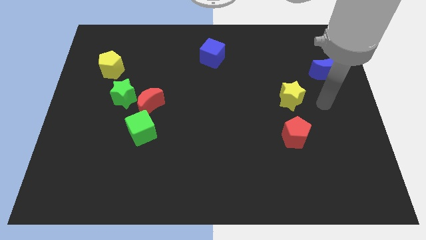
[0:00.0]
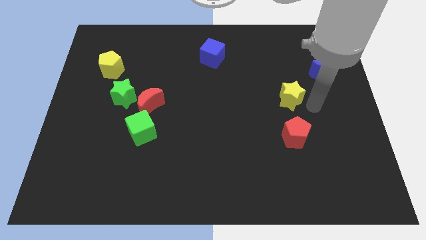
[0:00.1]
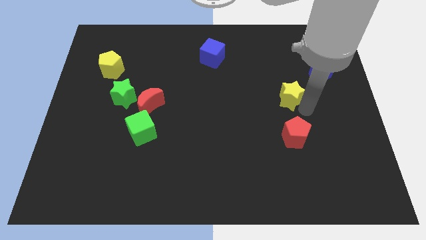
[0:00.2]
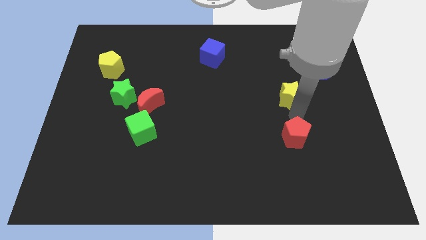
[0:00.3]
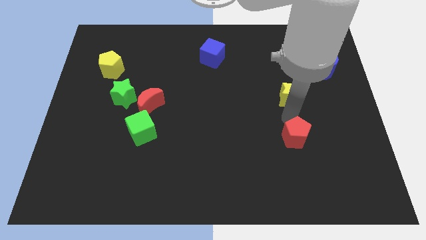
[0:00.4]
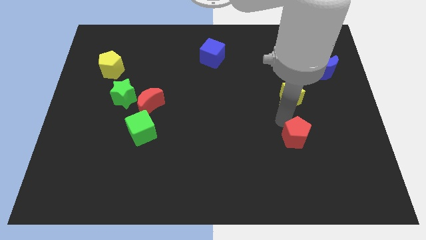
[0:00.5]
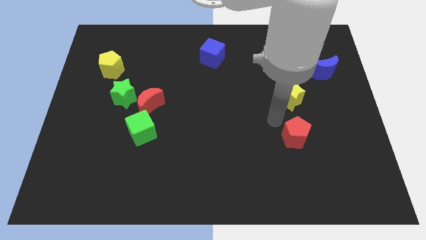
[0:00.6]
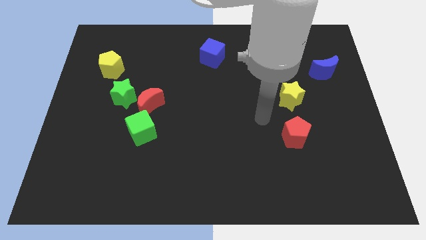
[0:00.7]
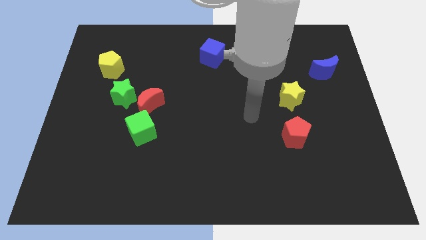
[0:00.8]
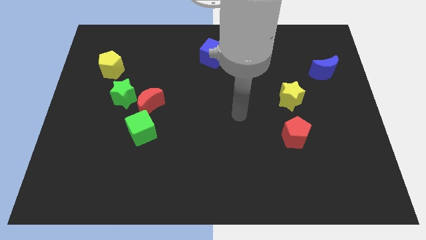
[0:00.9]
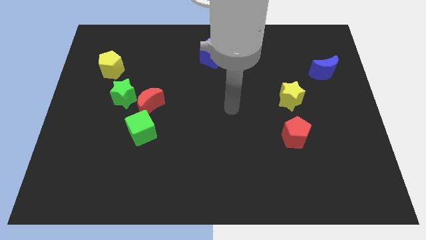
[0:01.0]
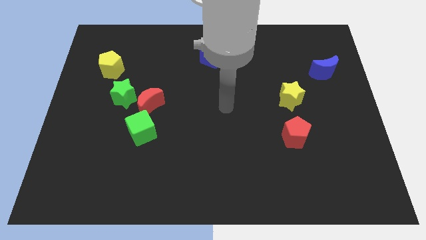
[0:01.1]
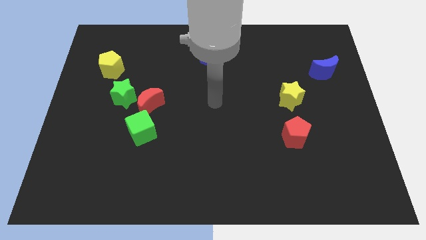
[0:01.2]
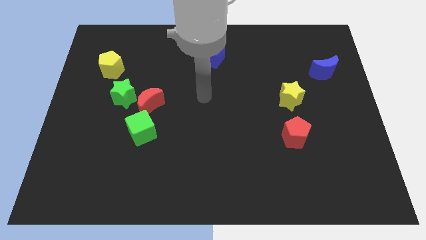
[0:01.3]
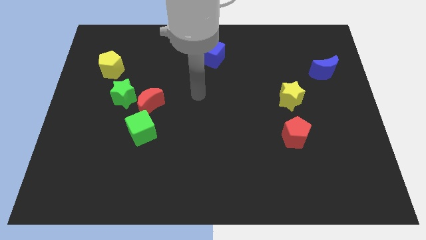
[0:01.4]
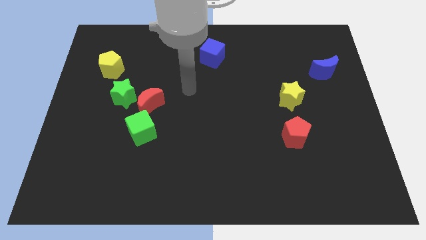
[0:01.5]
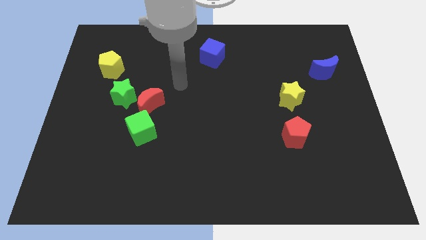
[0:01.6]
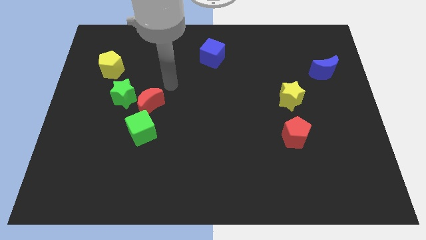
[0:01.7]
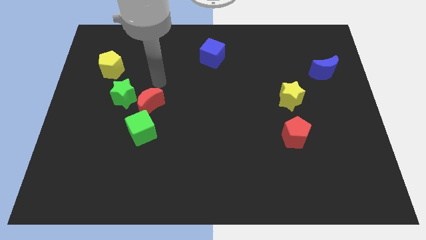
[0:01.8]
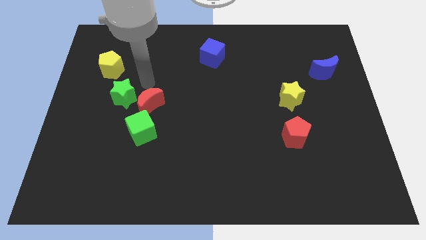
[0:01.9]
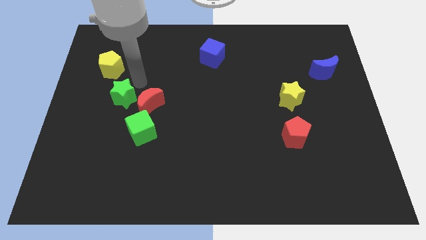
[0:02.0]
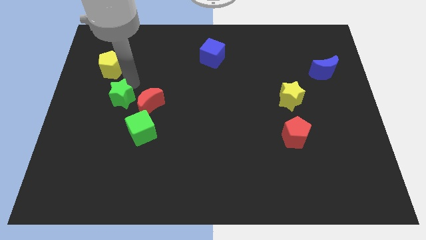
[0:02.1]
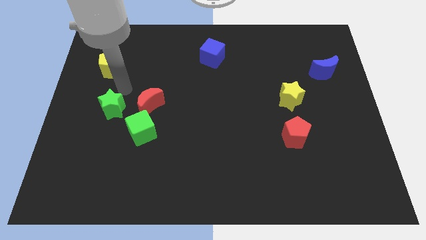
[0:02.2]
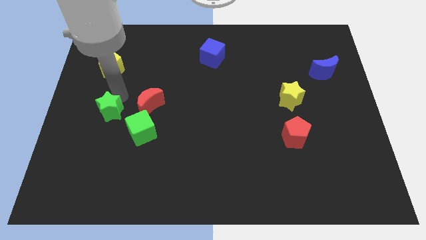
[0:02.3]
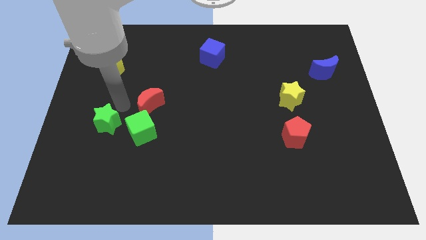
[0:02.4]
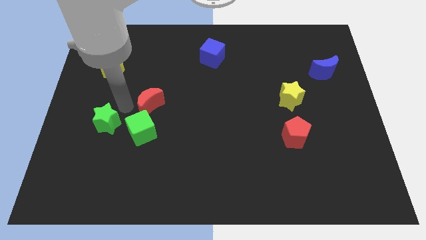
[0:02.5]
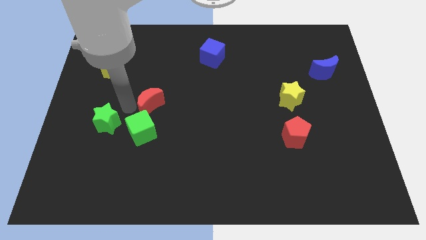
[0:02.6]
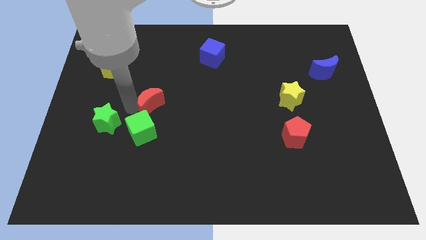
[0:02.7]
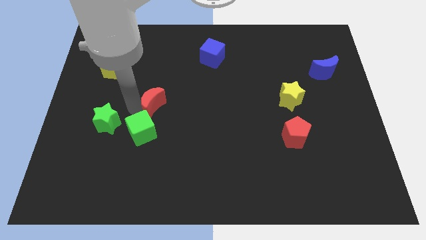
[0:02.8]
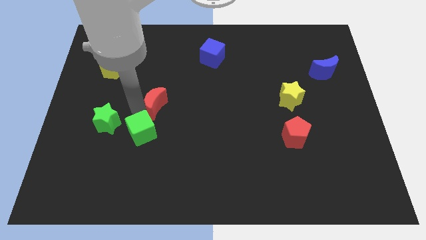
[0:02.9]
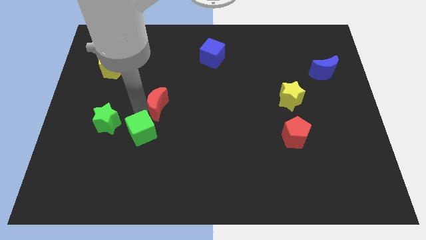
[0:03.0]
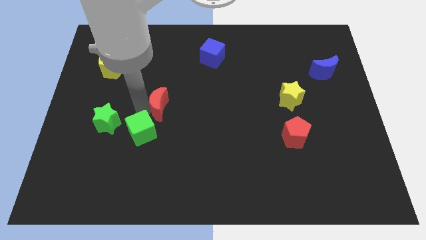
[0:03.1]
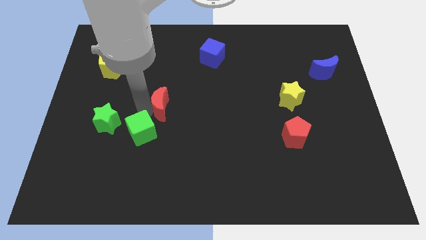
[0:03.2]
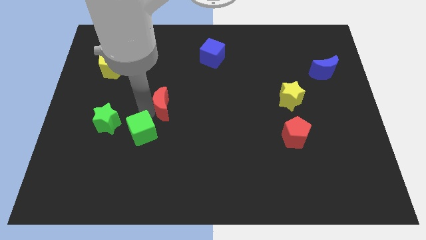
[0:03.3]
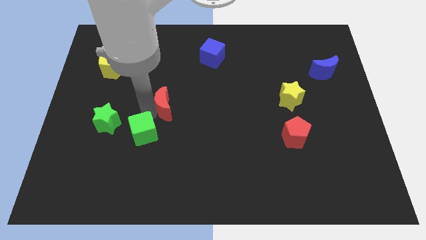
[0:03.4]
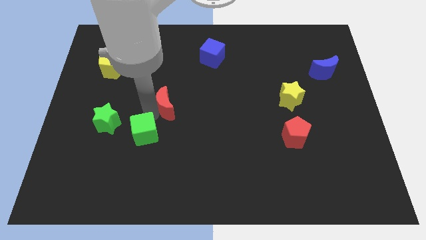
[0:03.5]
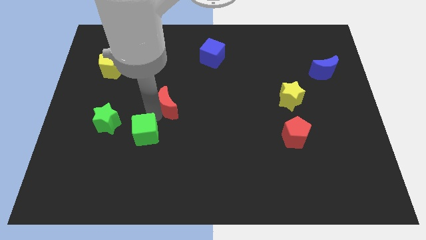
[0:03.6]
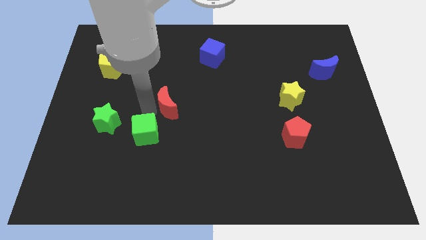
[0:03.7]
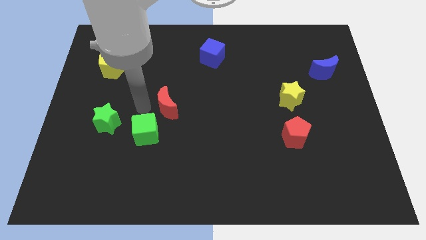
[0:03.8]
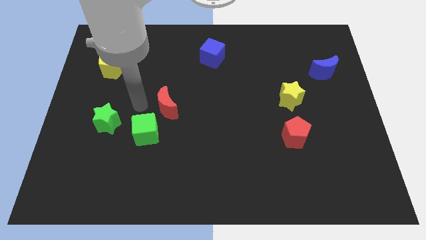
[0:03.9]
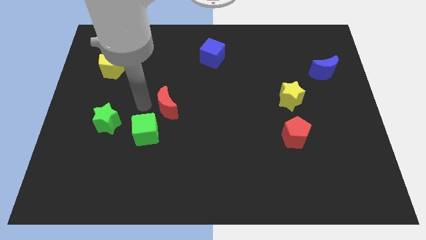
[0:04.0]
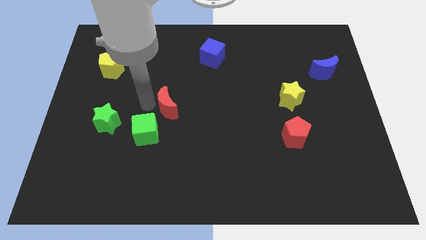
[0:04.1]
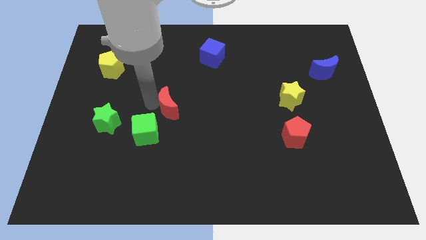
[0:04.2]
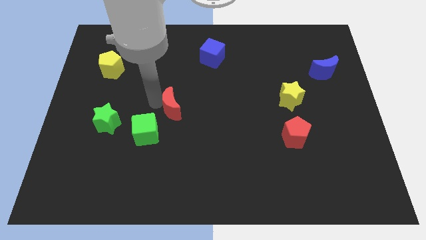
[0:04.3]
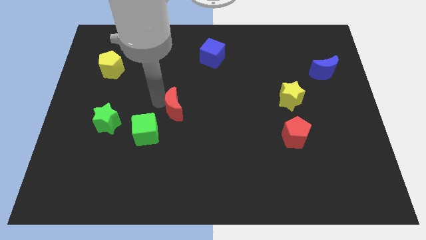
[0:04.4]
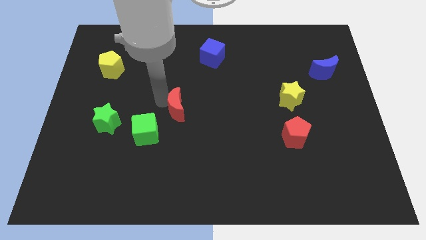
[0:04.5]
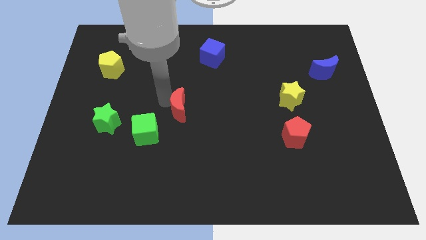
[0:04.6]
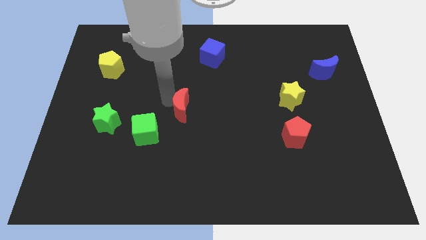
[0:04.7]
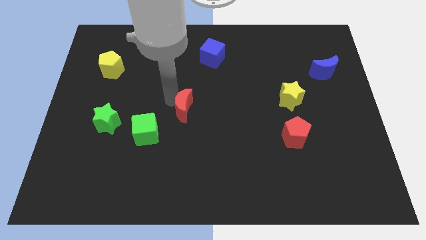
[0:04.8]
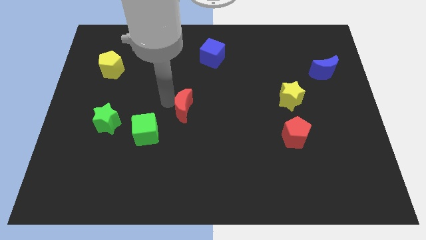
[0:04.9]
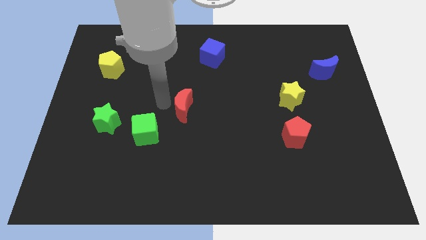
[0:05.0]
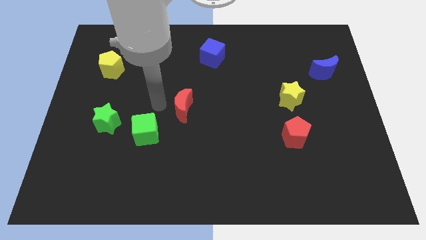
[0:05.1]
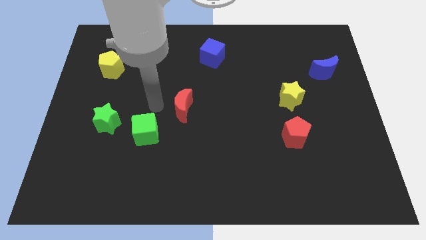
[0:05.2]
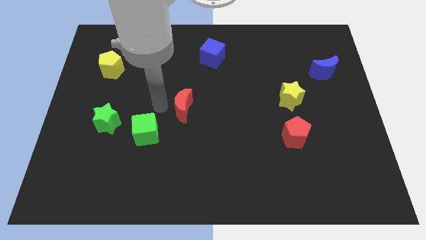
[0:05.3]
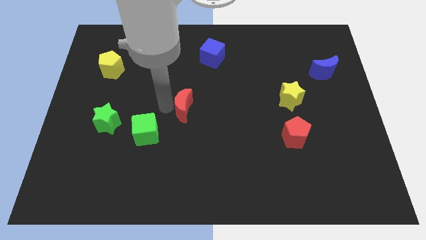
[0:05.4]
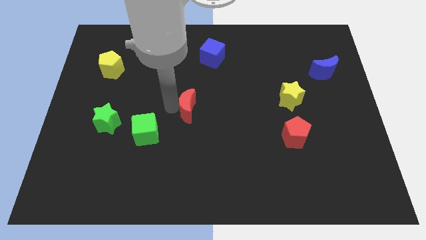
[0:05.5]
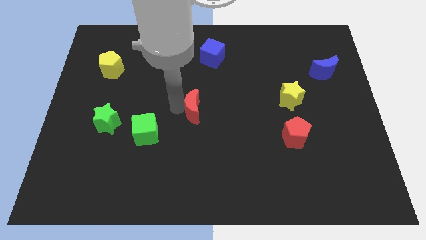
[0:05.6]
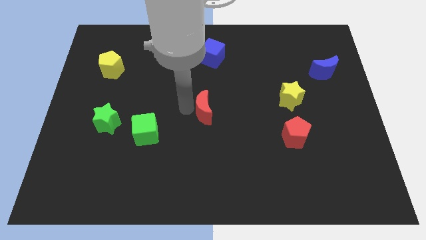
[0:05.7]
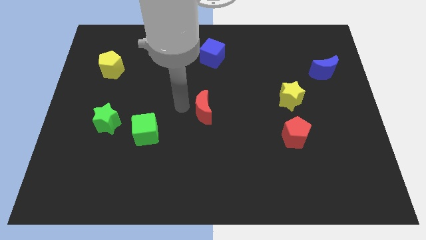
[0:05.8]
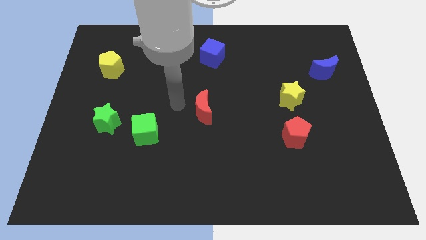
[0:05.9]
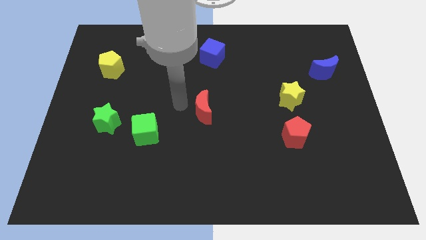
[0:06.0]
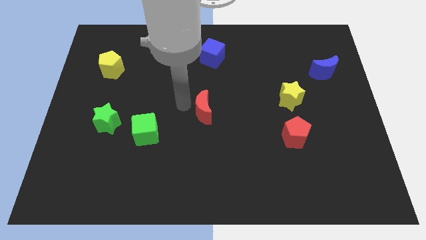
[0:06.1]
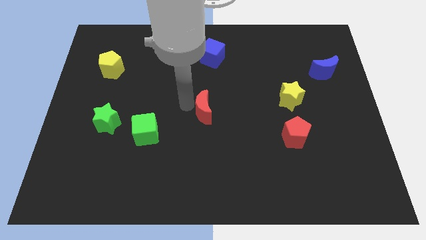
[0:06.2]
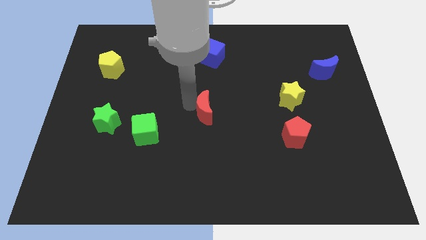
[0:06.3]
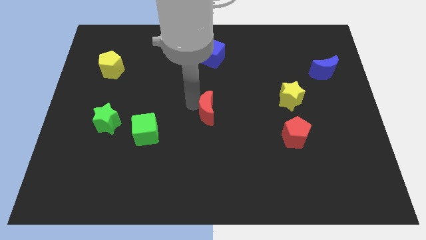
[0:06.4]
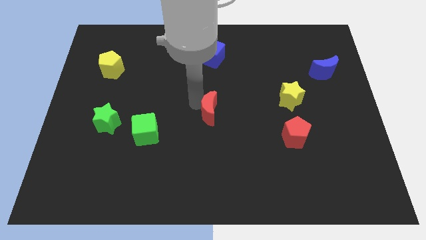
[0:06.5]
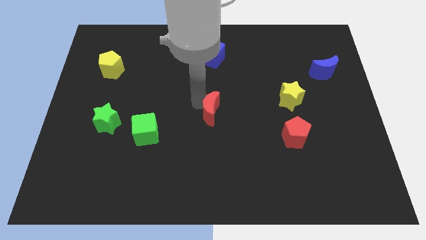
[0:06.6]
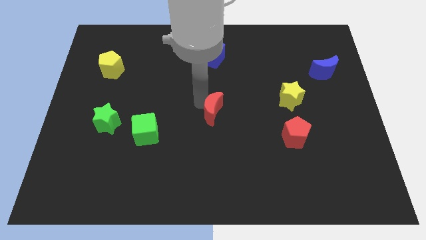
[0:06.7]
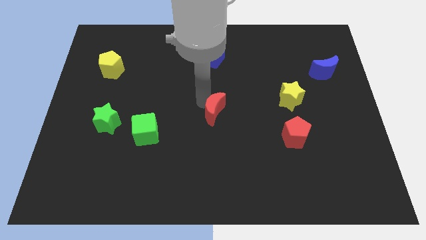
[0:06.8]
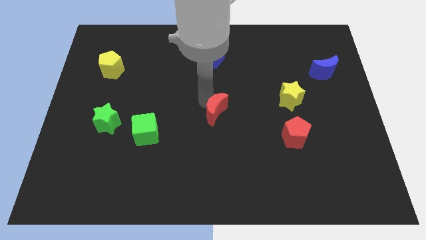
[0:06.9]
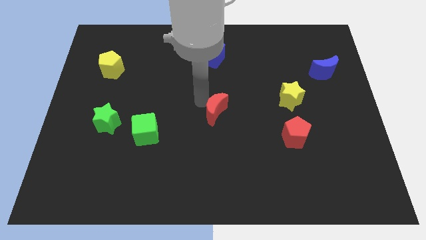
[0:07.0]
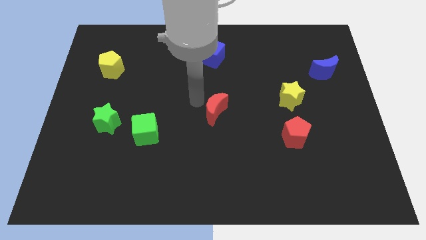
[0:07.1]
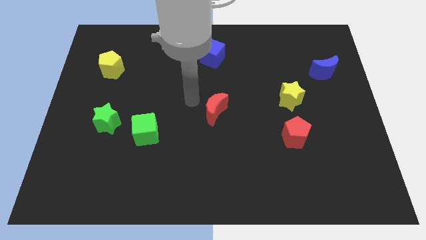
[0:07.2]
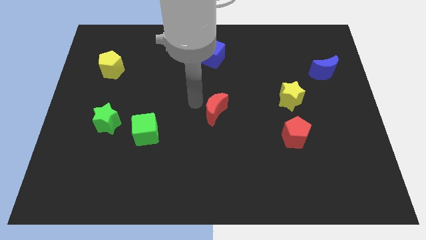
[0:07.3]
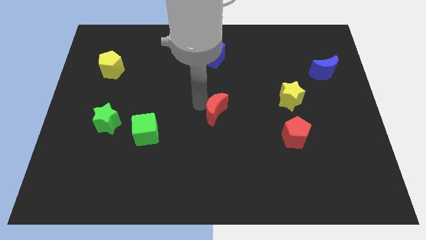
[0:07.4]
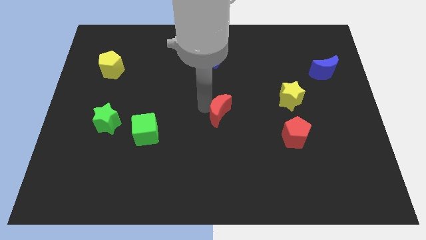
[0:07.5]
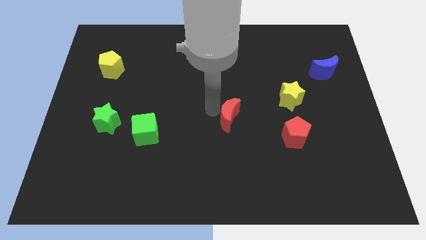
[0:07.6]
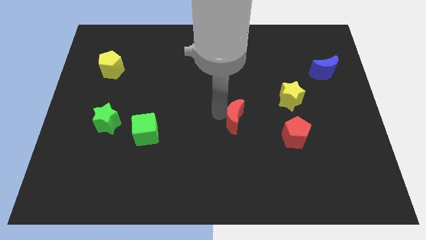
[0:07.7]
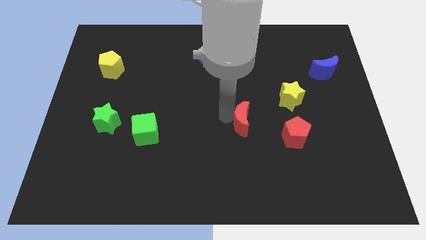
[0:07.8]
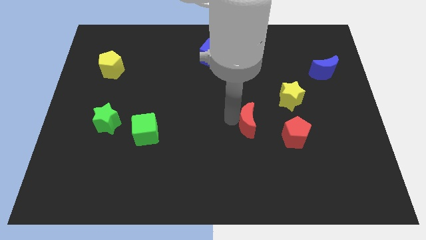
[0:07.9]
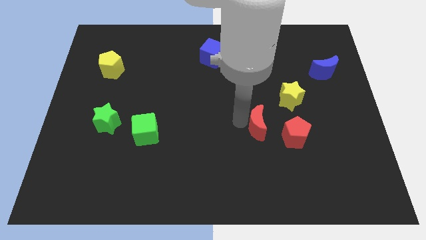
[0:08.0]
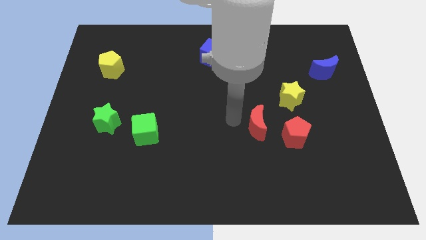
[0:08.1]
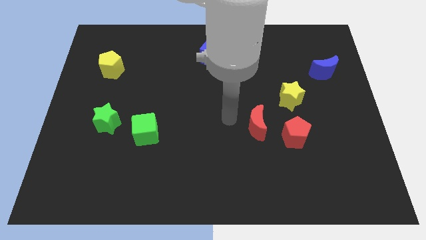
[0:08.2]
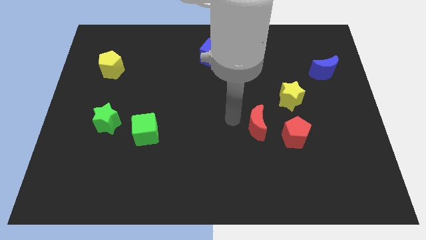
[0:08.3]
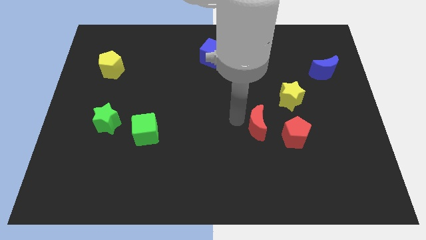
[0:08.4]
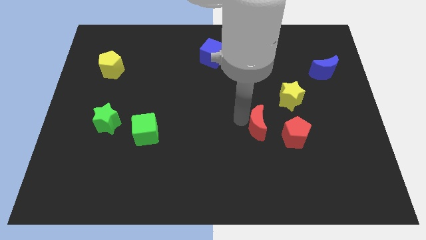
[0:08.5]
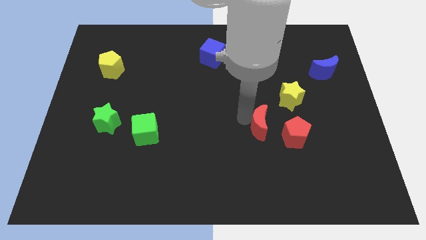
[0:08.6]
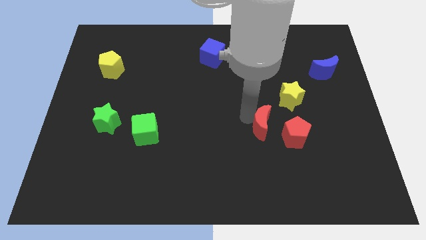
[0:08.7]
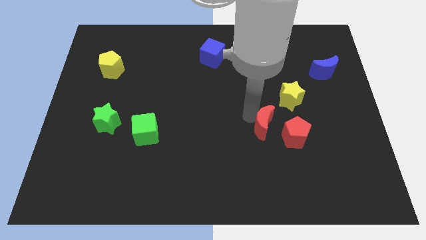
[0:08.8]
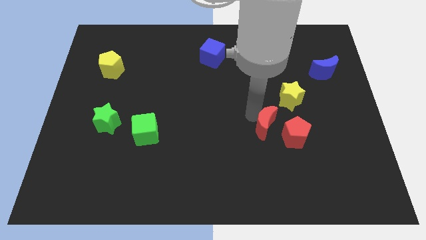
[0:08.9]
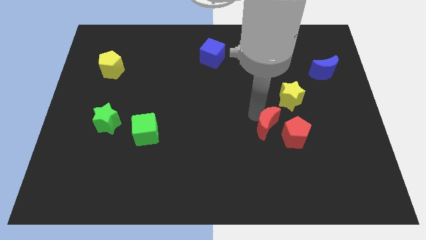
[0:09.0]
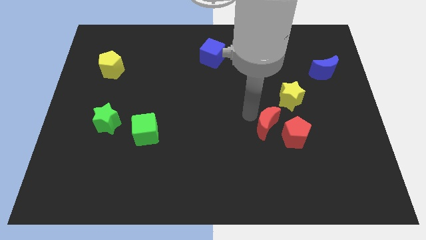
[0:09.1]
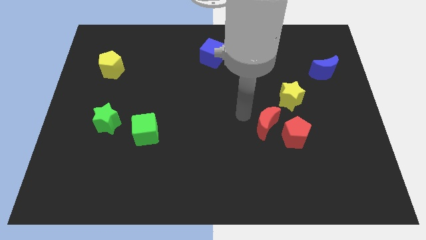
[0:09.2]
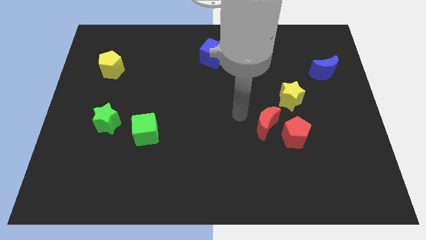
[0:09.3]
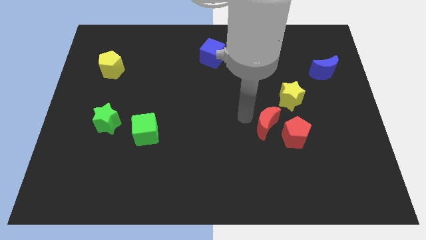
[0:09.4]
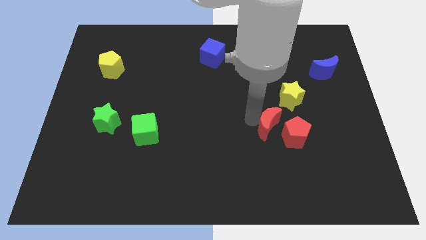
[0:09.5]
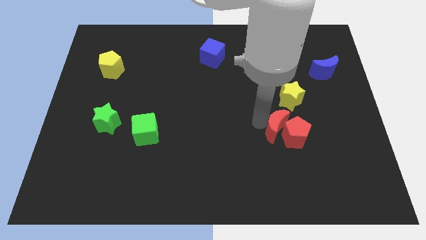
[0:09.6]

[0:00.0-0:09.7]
slide the red moon to the red pentagon
